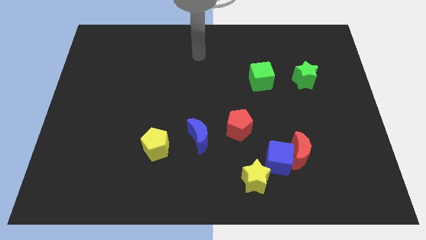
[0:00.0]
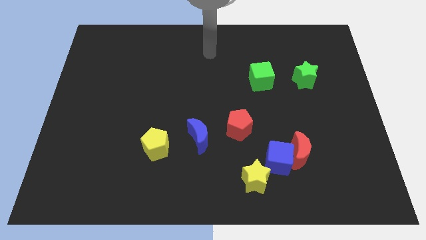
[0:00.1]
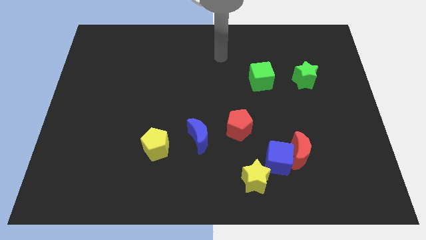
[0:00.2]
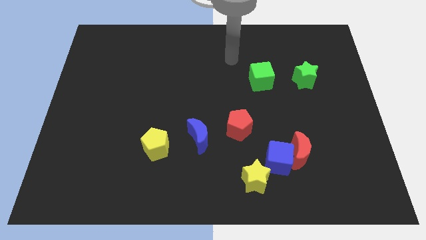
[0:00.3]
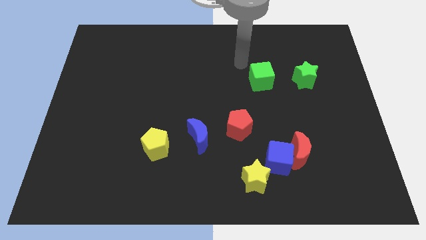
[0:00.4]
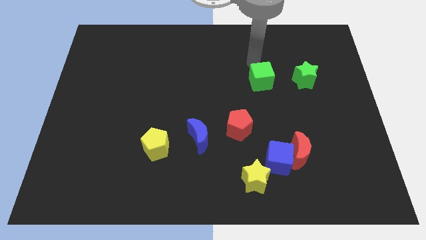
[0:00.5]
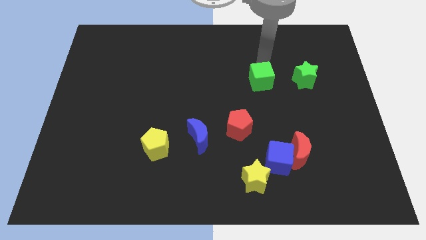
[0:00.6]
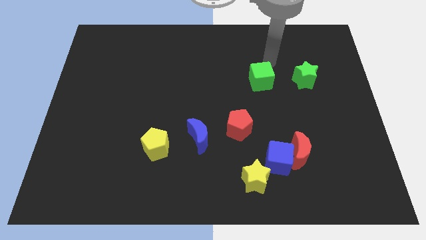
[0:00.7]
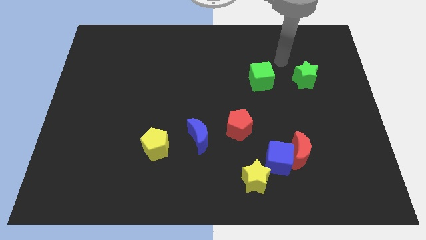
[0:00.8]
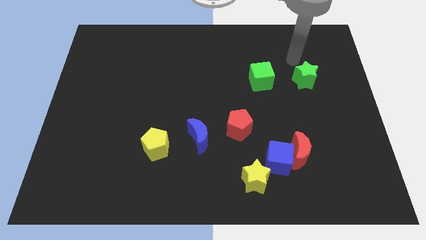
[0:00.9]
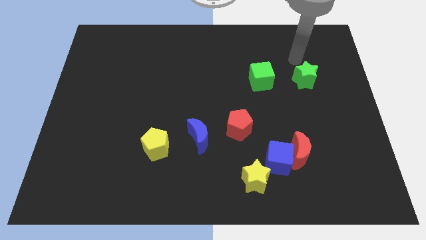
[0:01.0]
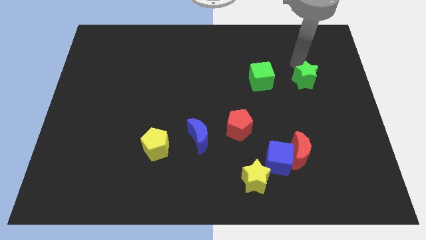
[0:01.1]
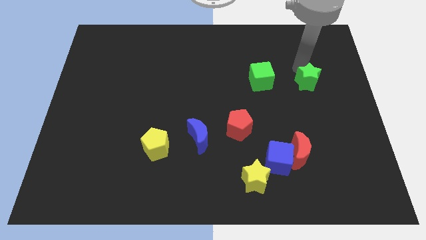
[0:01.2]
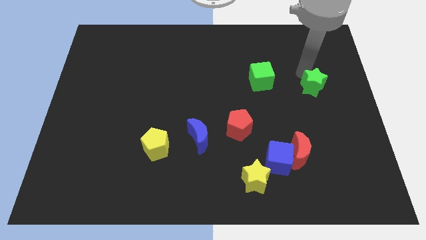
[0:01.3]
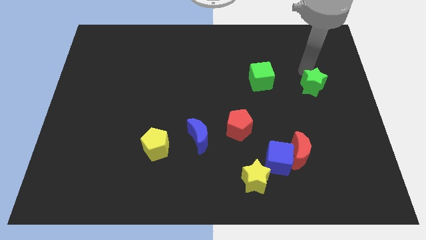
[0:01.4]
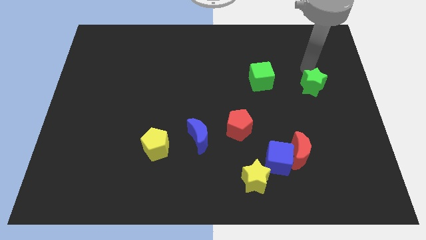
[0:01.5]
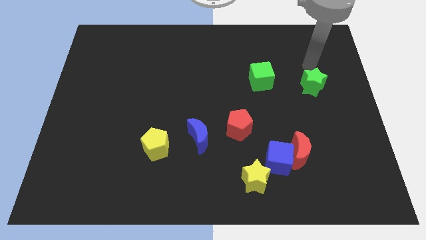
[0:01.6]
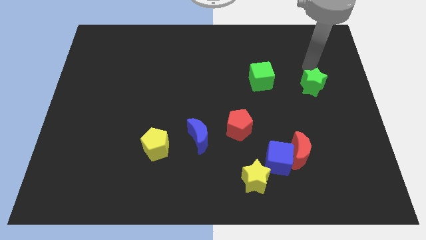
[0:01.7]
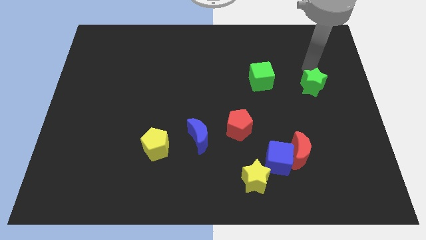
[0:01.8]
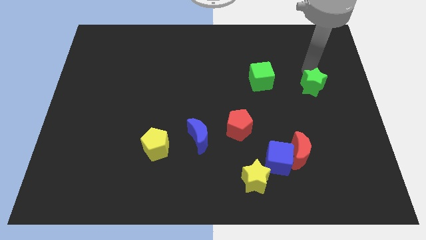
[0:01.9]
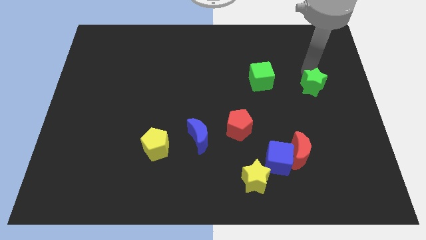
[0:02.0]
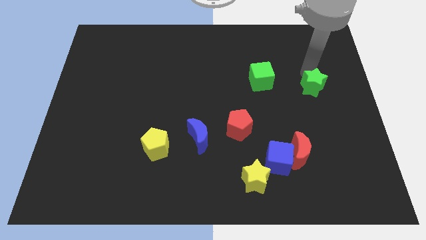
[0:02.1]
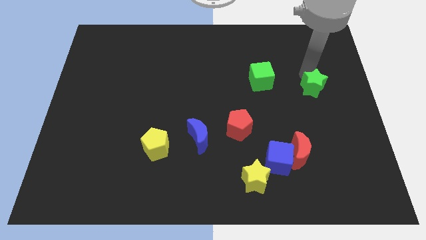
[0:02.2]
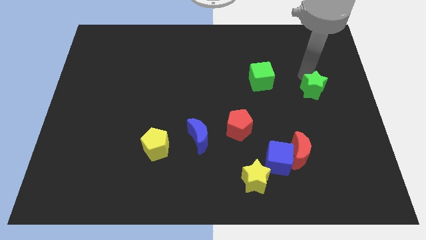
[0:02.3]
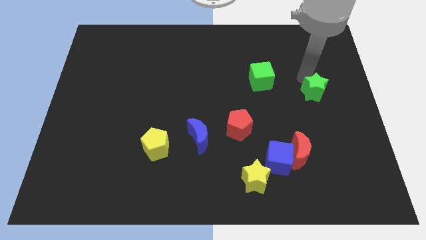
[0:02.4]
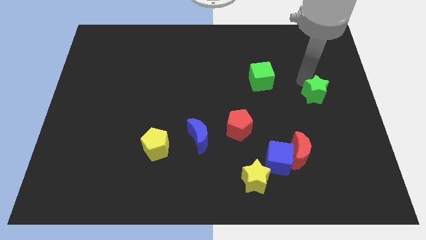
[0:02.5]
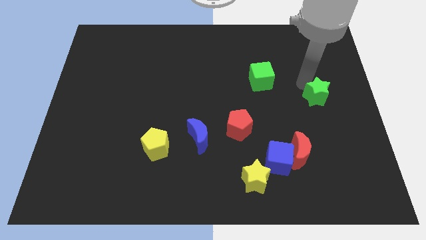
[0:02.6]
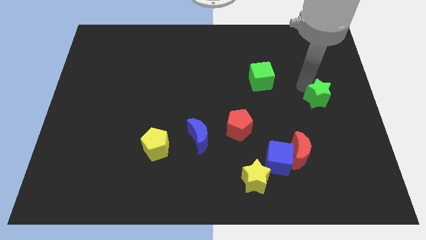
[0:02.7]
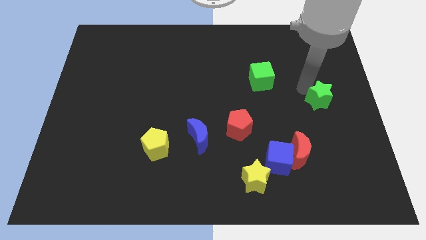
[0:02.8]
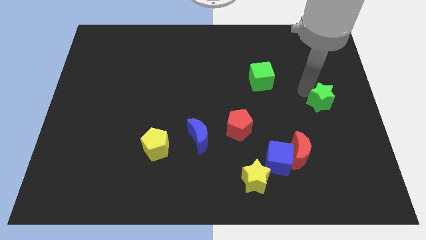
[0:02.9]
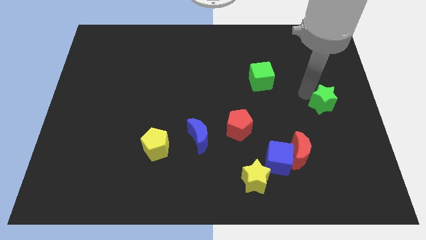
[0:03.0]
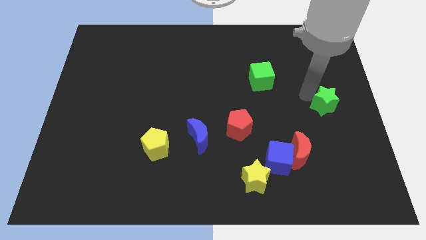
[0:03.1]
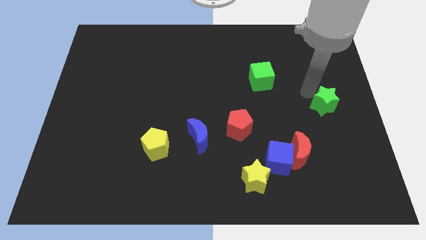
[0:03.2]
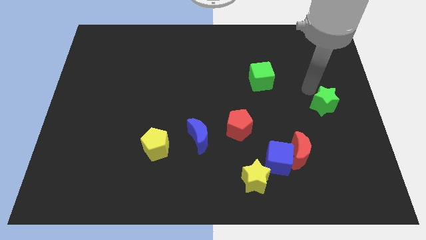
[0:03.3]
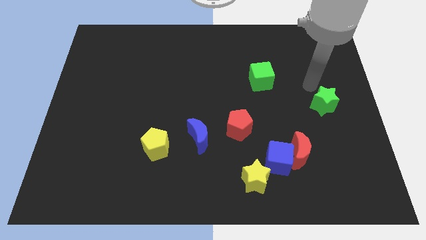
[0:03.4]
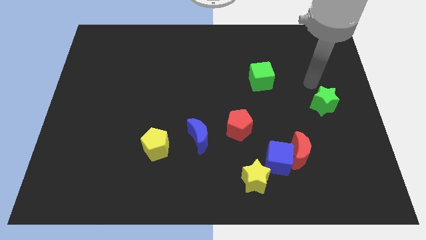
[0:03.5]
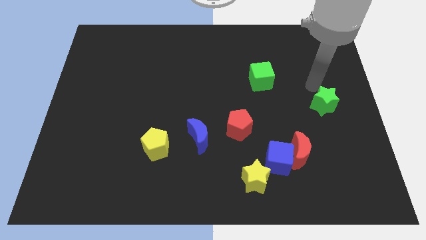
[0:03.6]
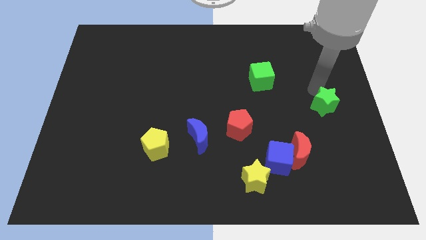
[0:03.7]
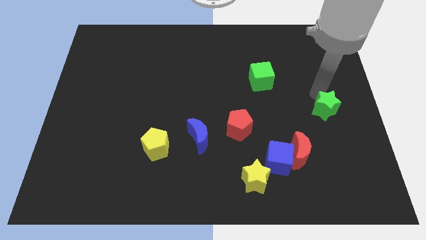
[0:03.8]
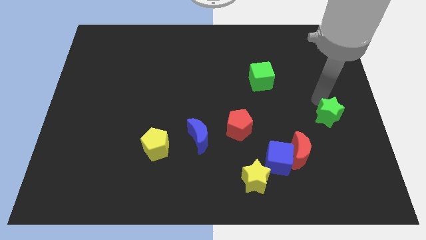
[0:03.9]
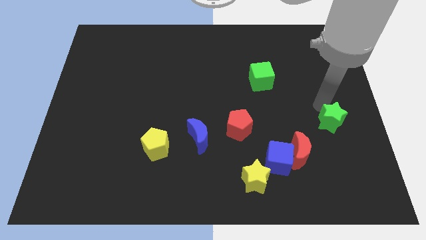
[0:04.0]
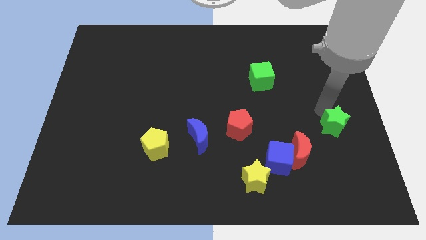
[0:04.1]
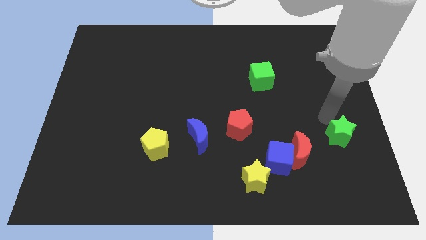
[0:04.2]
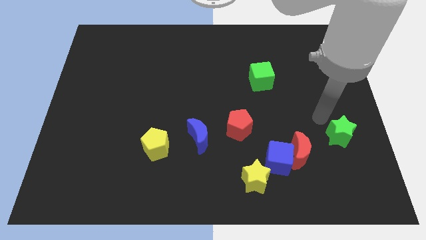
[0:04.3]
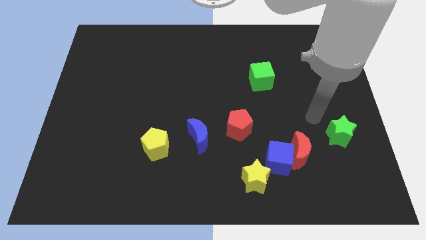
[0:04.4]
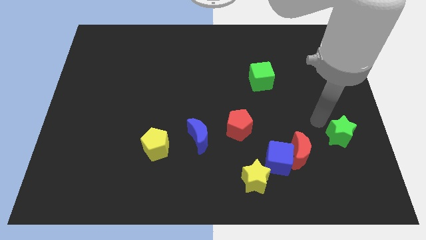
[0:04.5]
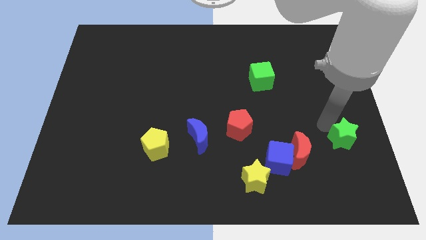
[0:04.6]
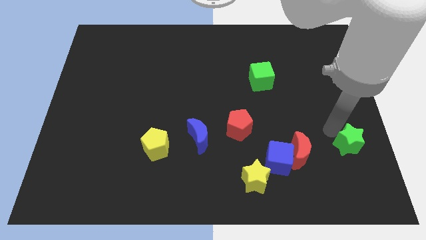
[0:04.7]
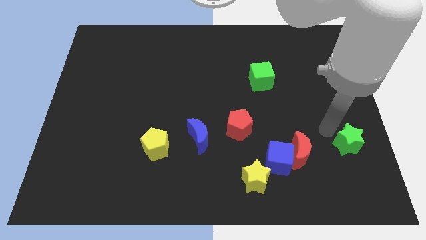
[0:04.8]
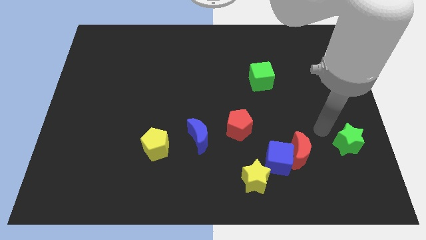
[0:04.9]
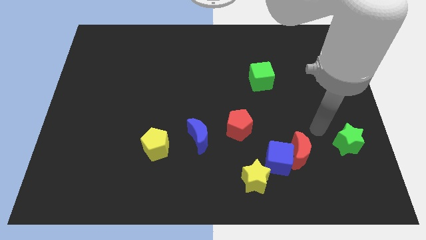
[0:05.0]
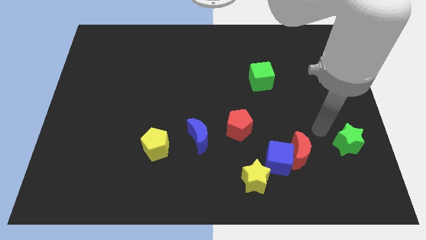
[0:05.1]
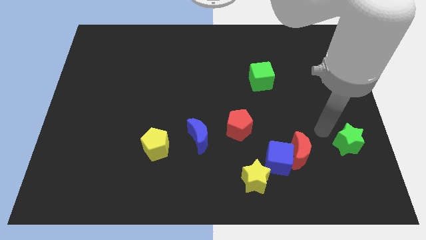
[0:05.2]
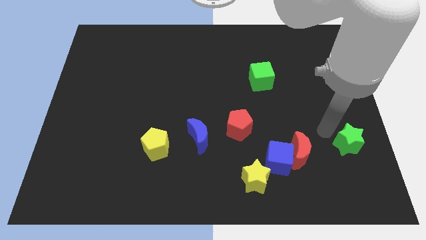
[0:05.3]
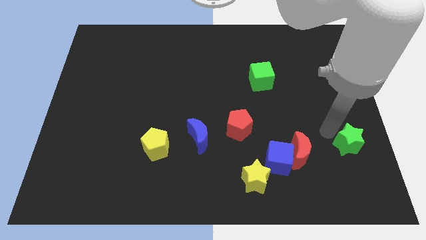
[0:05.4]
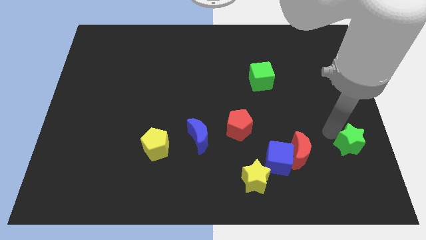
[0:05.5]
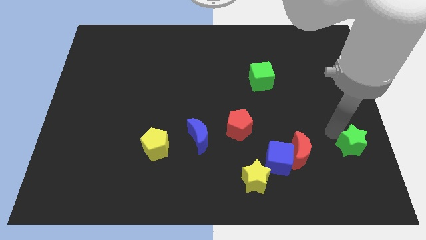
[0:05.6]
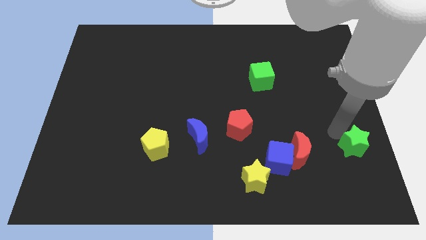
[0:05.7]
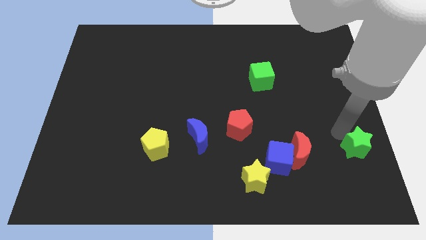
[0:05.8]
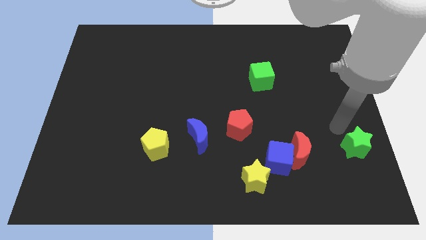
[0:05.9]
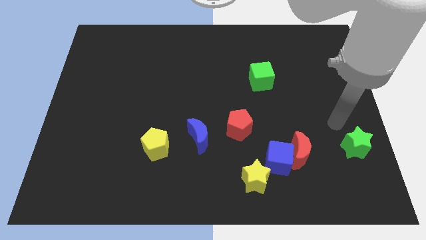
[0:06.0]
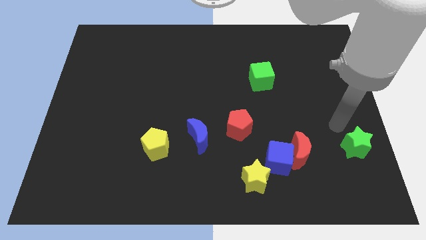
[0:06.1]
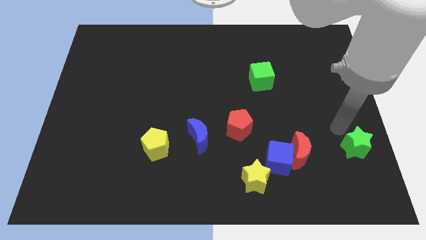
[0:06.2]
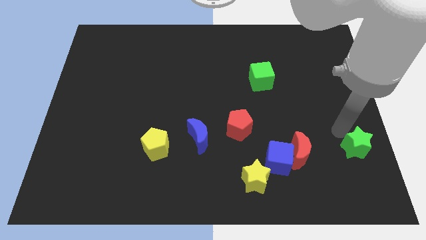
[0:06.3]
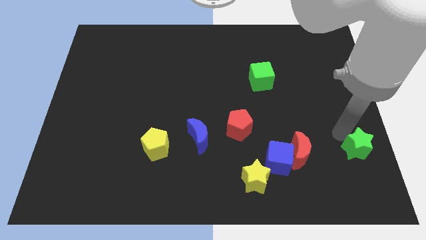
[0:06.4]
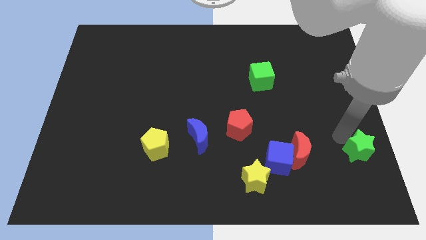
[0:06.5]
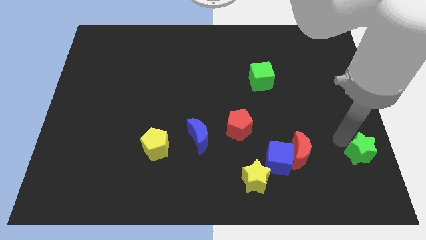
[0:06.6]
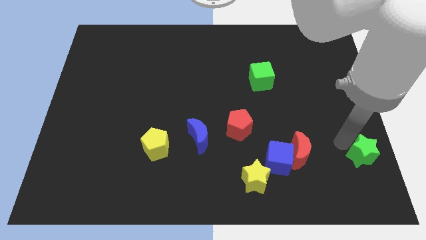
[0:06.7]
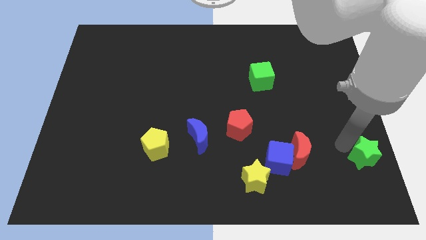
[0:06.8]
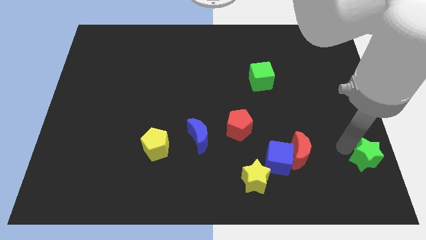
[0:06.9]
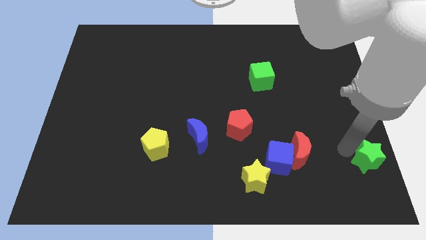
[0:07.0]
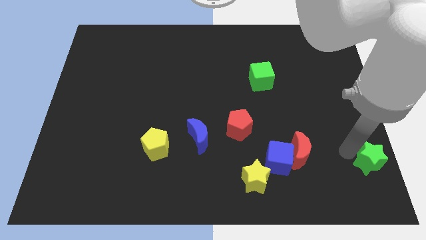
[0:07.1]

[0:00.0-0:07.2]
move the green star to the bottom right
